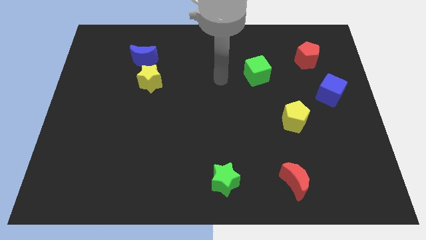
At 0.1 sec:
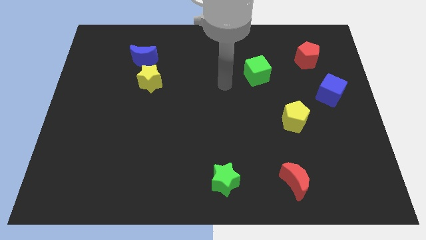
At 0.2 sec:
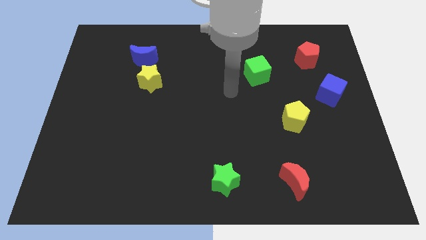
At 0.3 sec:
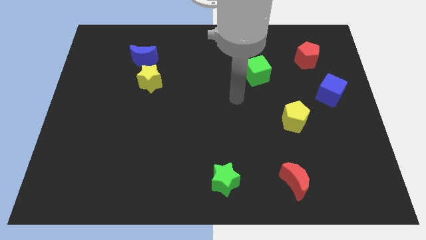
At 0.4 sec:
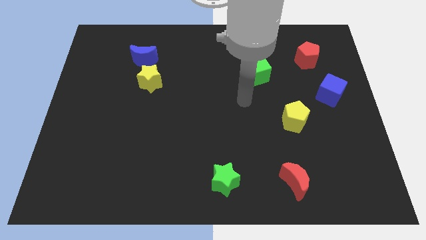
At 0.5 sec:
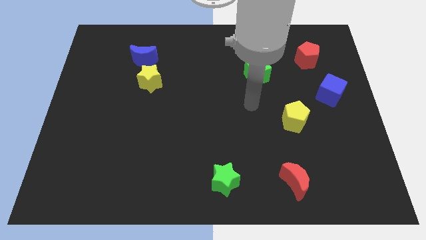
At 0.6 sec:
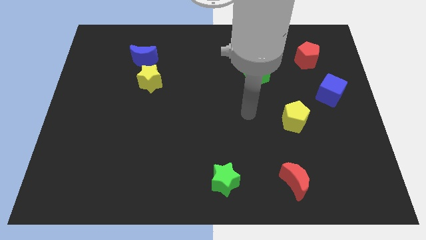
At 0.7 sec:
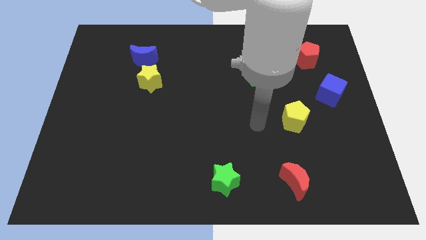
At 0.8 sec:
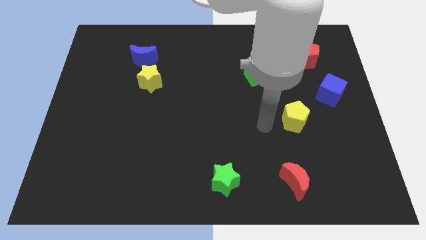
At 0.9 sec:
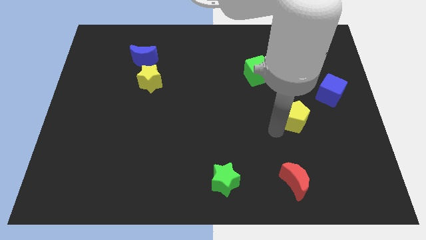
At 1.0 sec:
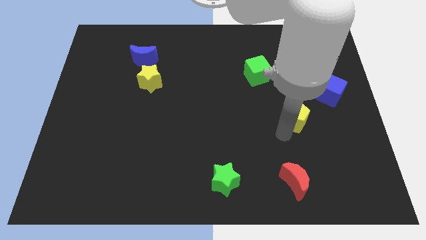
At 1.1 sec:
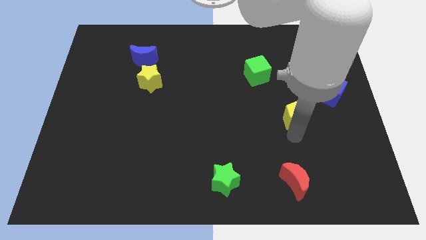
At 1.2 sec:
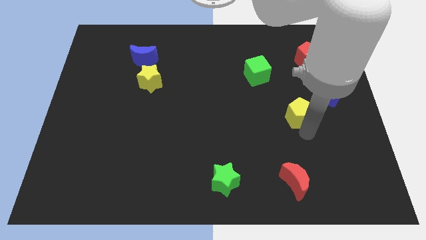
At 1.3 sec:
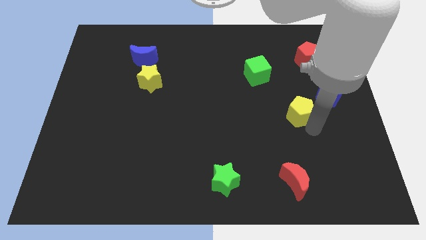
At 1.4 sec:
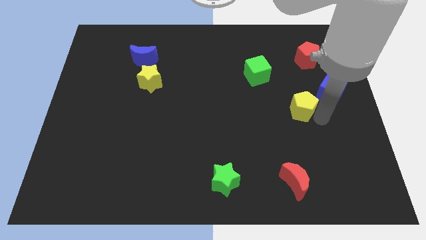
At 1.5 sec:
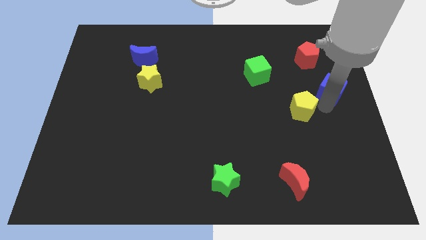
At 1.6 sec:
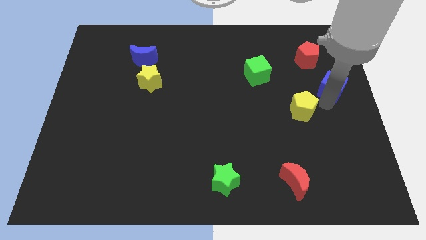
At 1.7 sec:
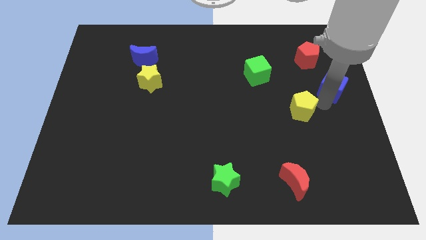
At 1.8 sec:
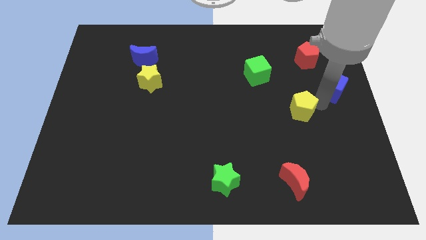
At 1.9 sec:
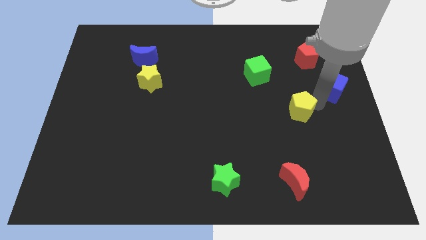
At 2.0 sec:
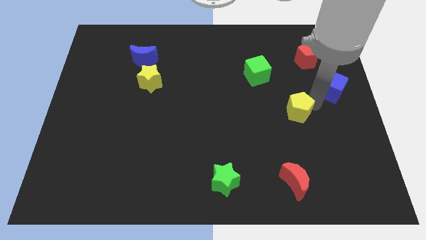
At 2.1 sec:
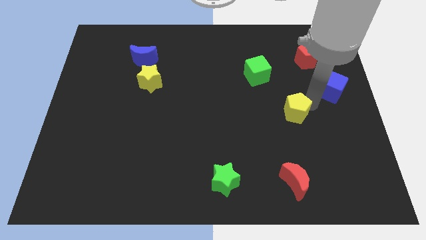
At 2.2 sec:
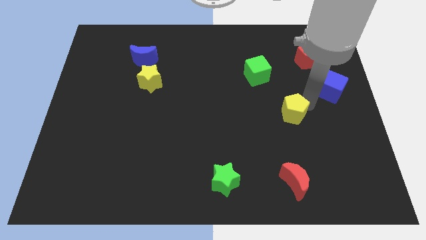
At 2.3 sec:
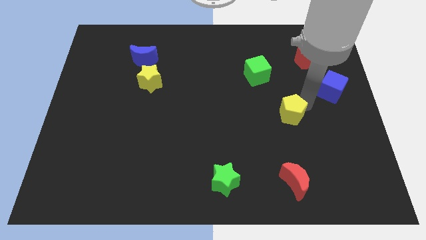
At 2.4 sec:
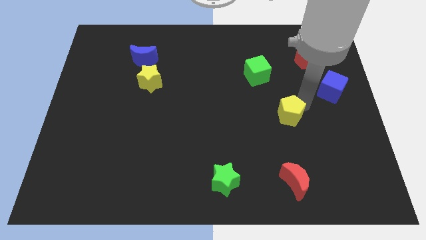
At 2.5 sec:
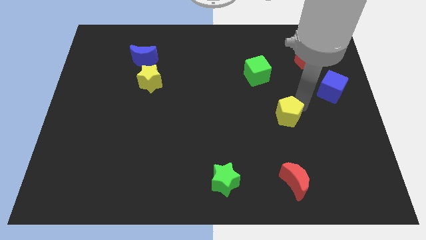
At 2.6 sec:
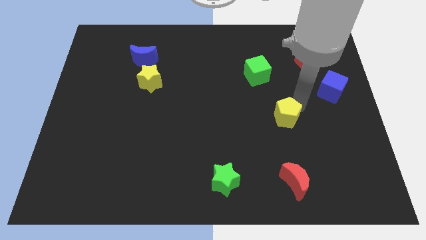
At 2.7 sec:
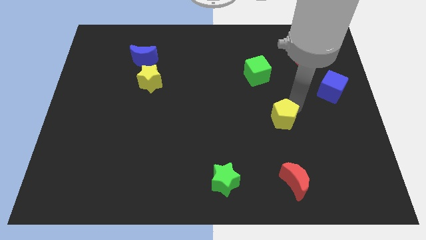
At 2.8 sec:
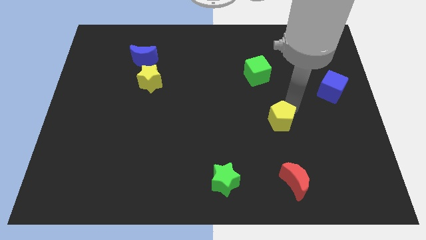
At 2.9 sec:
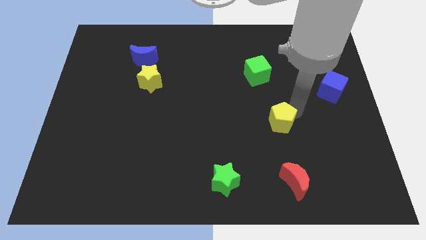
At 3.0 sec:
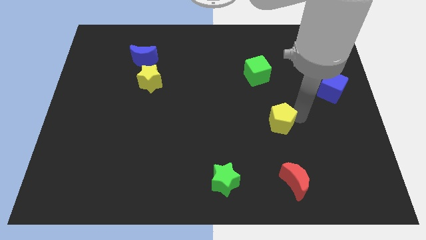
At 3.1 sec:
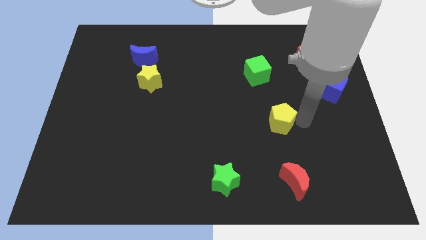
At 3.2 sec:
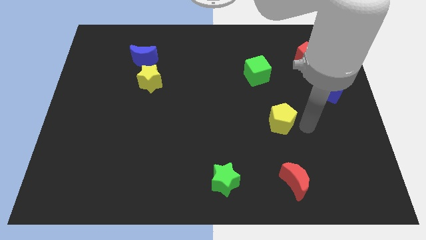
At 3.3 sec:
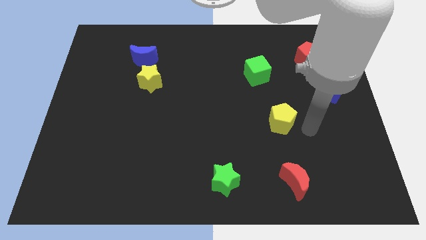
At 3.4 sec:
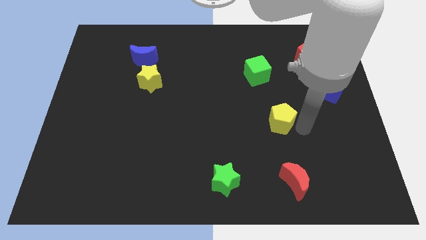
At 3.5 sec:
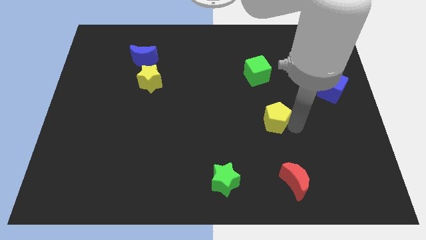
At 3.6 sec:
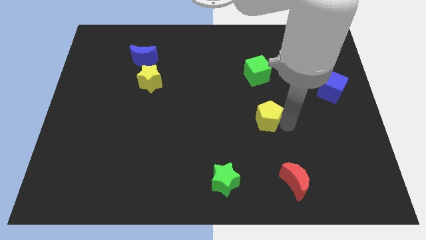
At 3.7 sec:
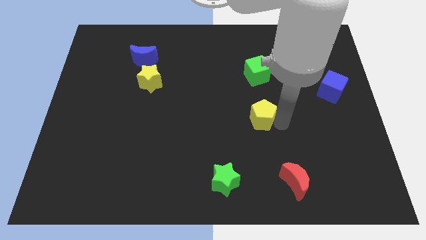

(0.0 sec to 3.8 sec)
slide the yellow pentagon to the left somewhat

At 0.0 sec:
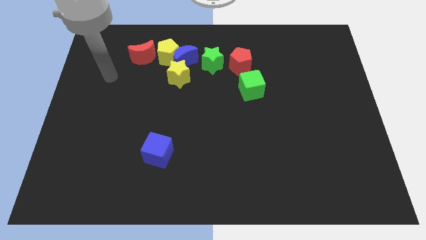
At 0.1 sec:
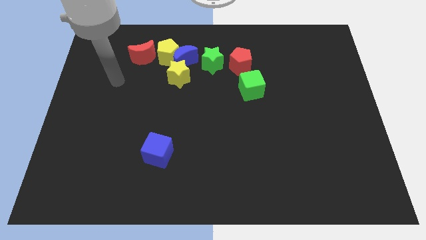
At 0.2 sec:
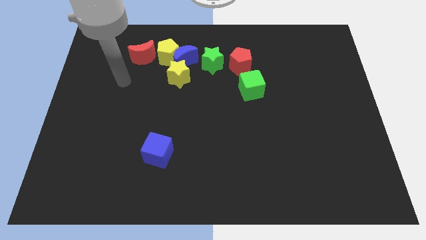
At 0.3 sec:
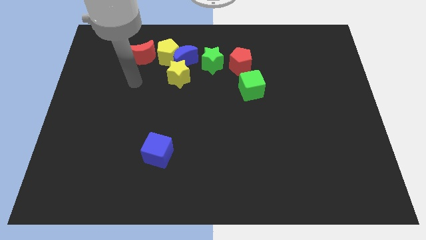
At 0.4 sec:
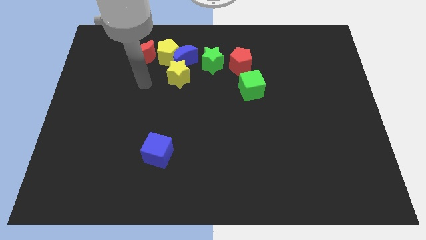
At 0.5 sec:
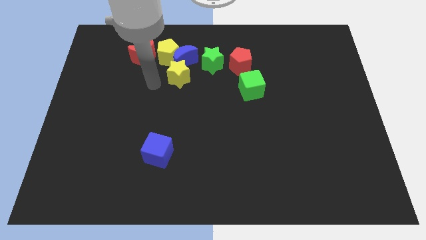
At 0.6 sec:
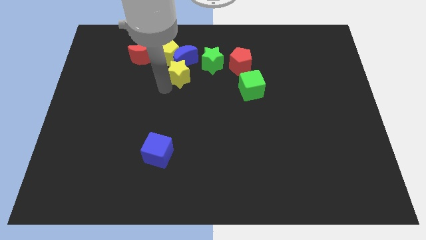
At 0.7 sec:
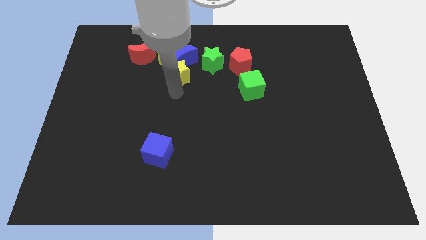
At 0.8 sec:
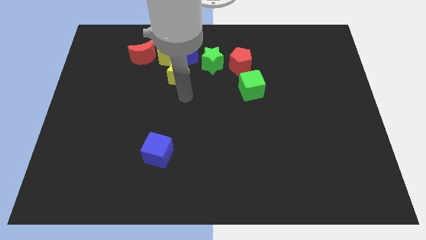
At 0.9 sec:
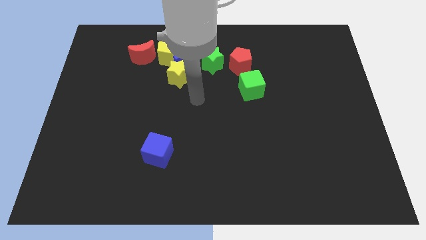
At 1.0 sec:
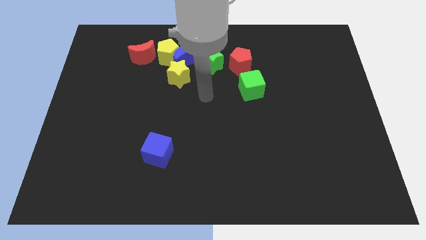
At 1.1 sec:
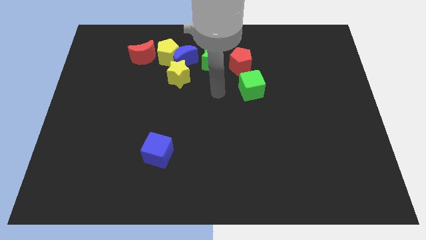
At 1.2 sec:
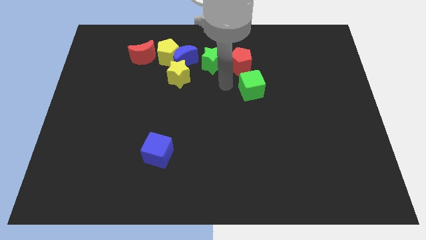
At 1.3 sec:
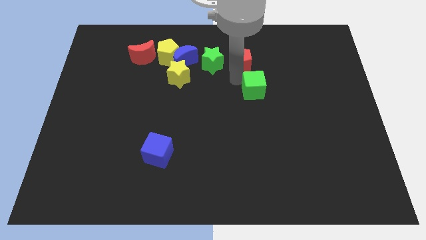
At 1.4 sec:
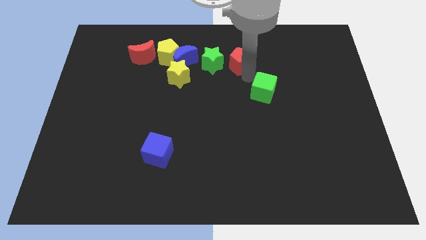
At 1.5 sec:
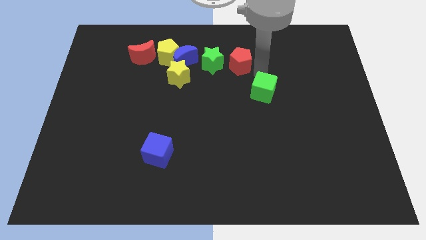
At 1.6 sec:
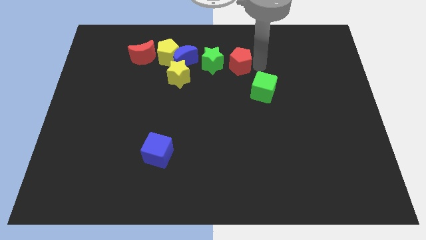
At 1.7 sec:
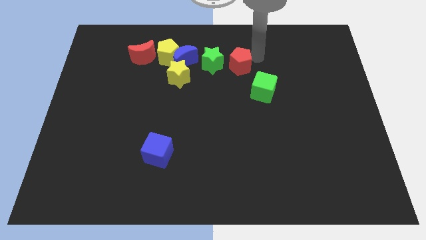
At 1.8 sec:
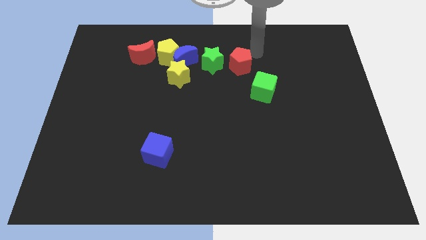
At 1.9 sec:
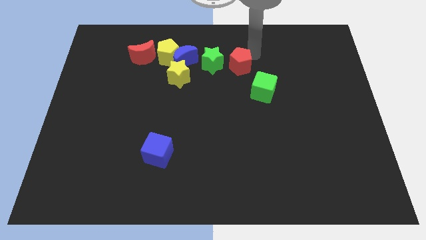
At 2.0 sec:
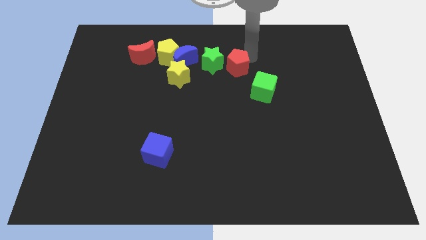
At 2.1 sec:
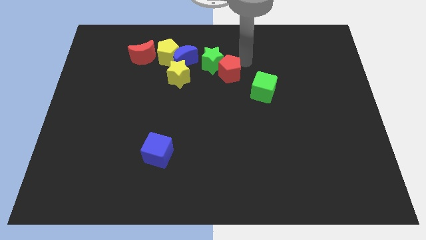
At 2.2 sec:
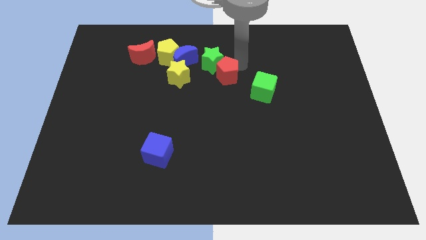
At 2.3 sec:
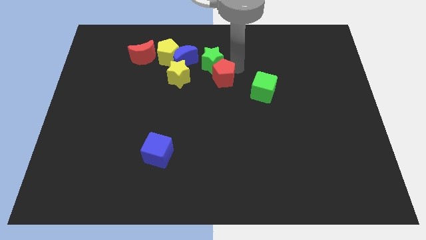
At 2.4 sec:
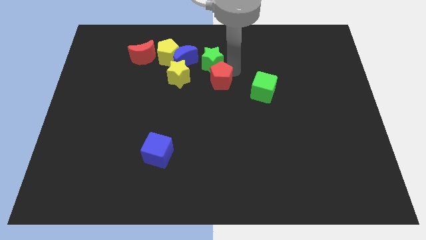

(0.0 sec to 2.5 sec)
slide the red pentagon slightly diagonally downwards and left

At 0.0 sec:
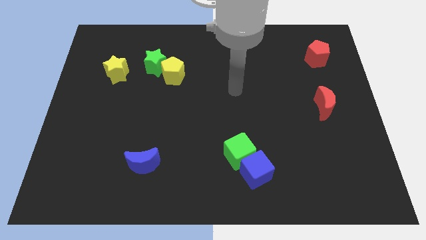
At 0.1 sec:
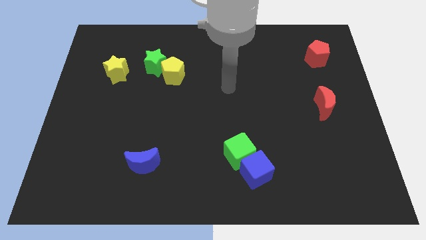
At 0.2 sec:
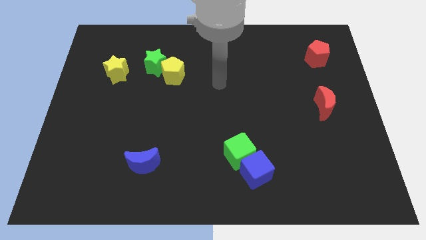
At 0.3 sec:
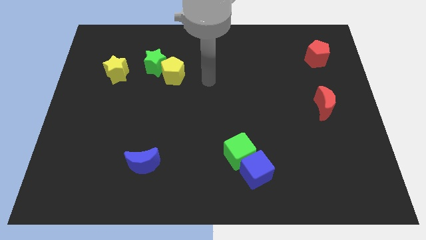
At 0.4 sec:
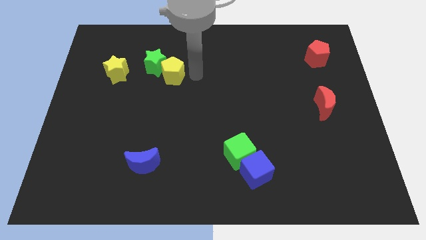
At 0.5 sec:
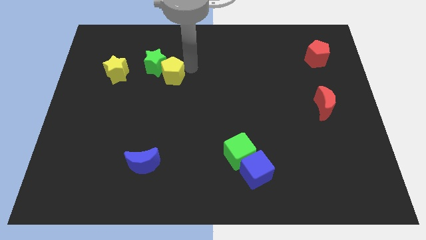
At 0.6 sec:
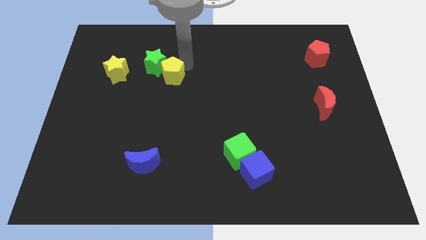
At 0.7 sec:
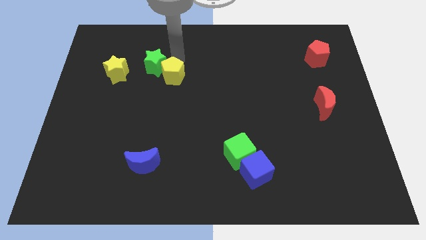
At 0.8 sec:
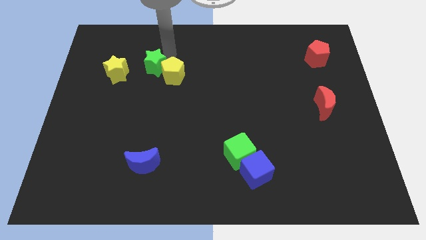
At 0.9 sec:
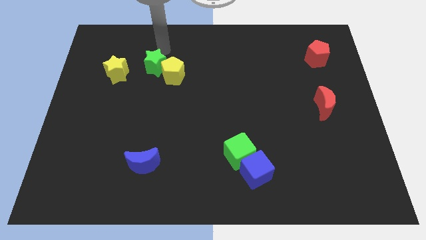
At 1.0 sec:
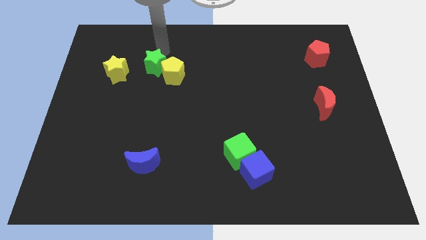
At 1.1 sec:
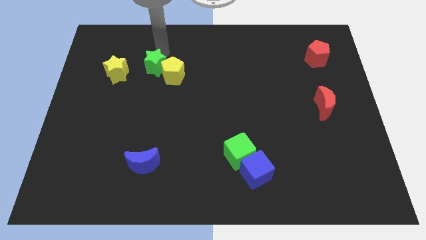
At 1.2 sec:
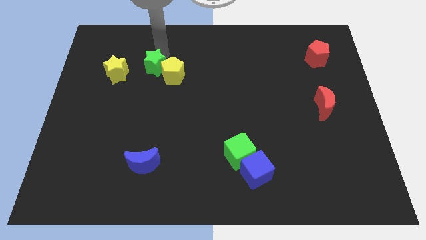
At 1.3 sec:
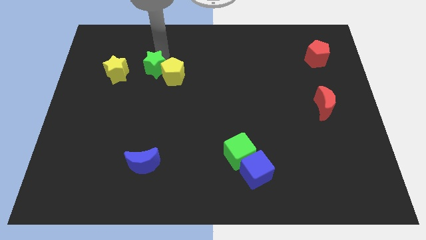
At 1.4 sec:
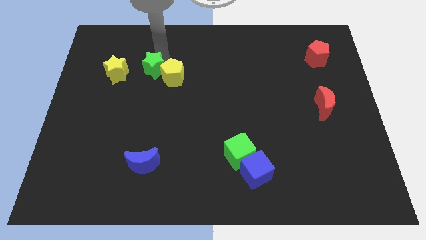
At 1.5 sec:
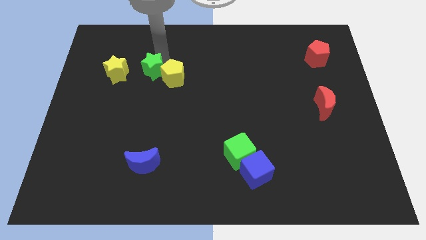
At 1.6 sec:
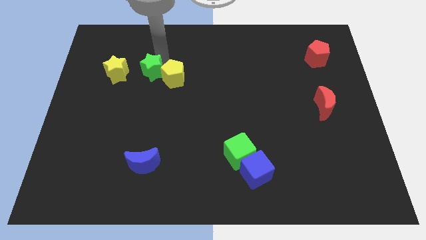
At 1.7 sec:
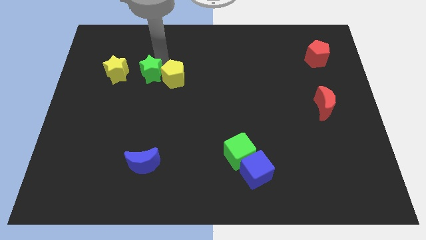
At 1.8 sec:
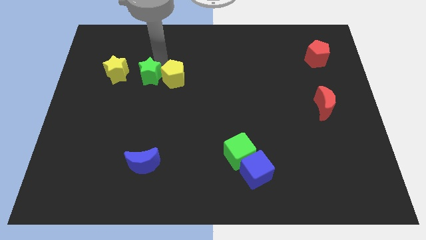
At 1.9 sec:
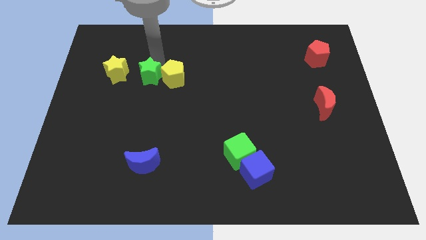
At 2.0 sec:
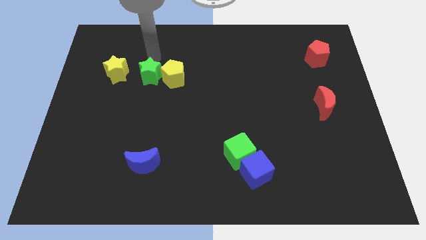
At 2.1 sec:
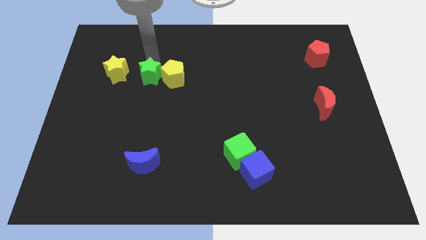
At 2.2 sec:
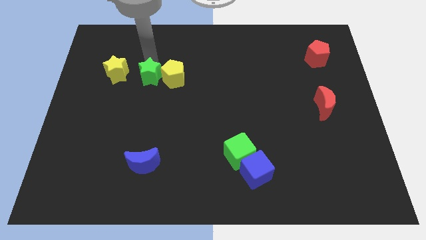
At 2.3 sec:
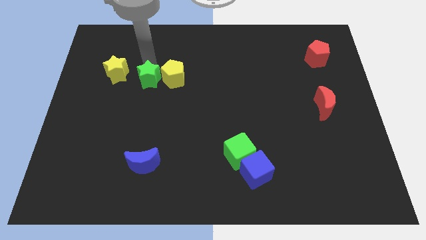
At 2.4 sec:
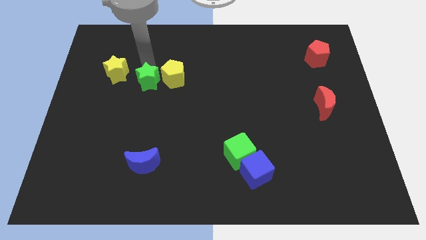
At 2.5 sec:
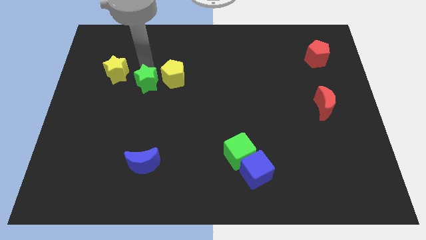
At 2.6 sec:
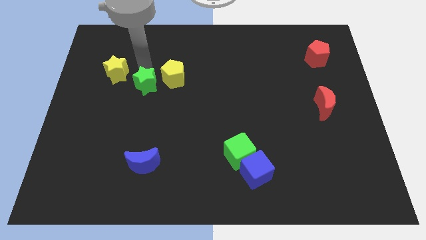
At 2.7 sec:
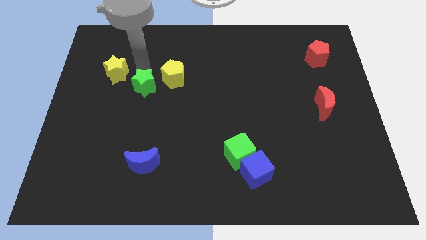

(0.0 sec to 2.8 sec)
move the green star slightly down
